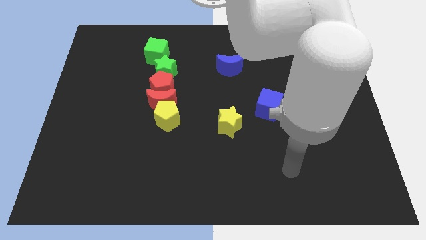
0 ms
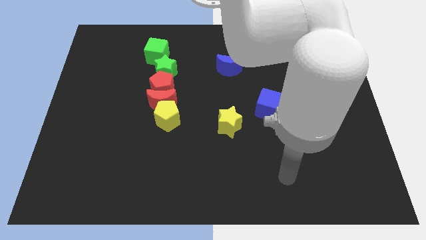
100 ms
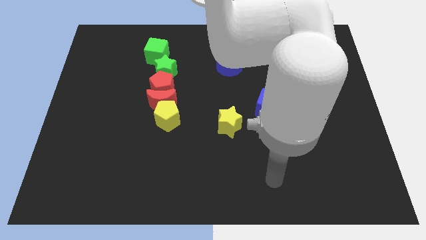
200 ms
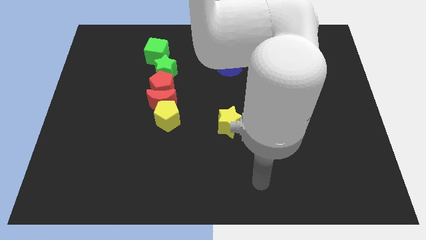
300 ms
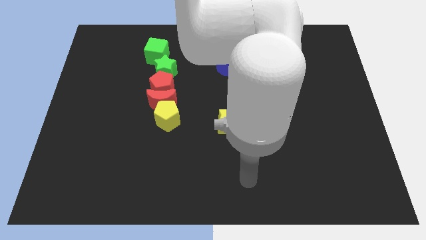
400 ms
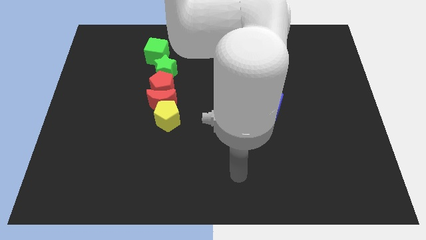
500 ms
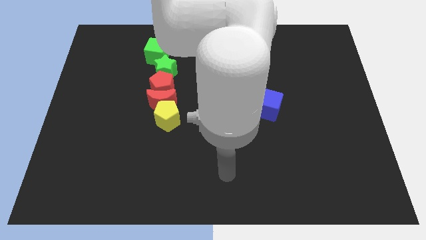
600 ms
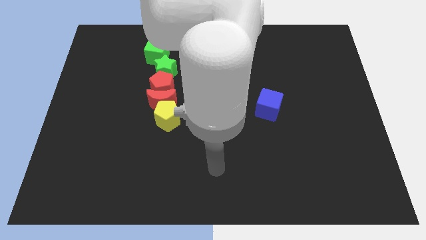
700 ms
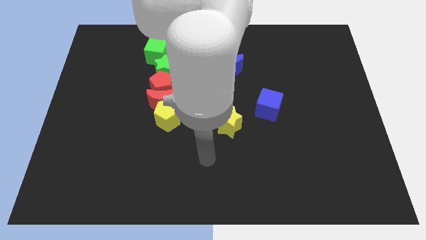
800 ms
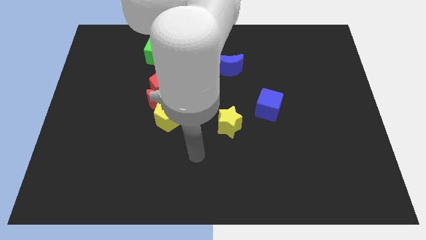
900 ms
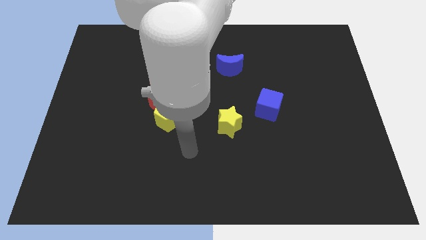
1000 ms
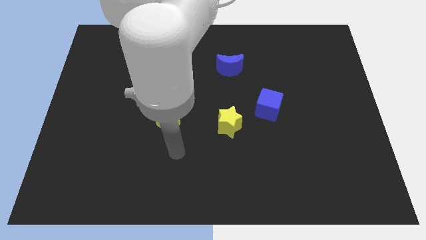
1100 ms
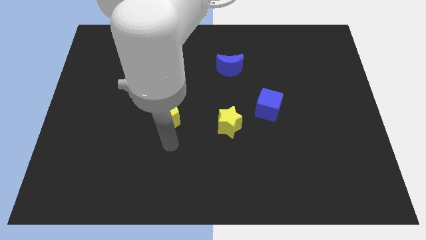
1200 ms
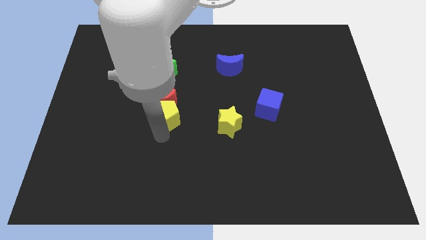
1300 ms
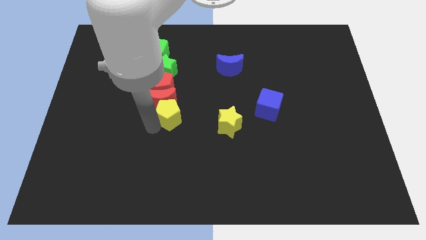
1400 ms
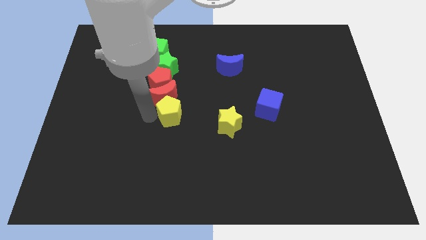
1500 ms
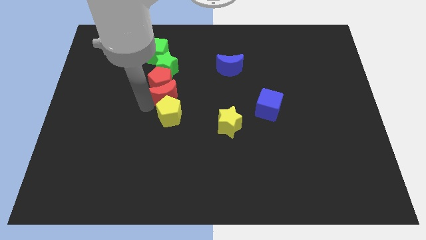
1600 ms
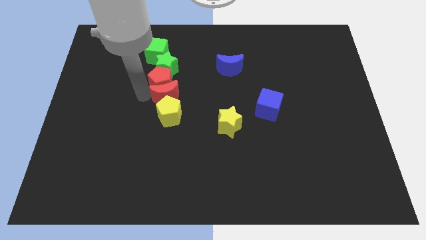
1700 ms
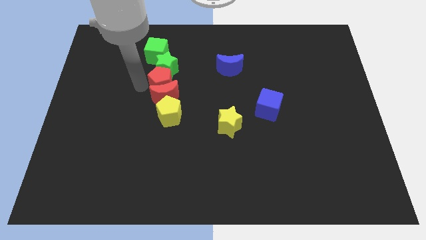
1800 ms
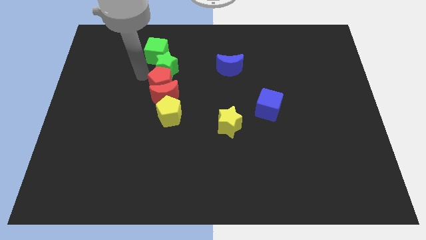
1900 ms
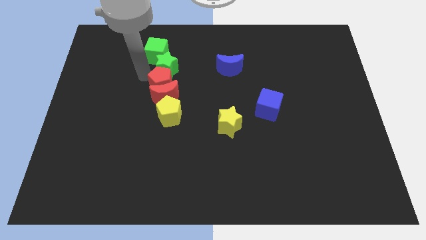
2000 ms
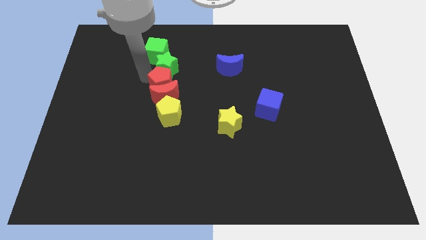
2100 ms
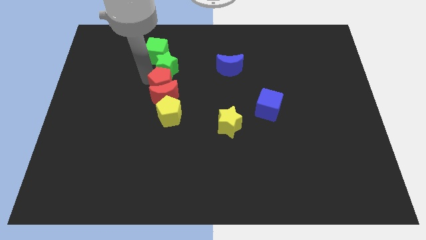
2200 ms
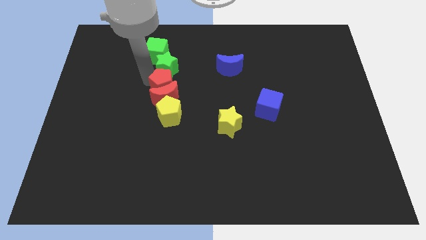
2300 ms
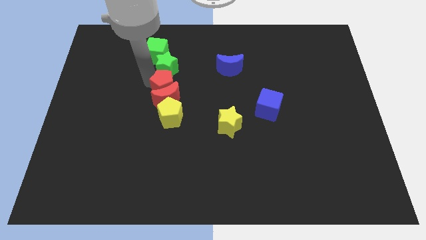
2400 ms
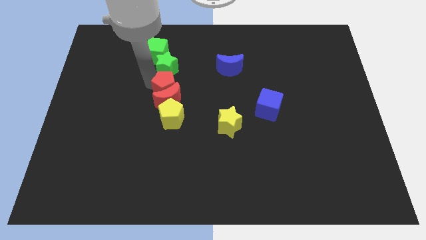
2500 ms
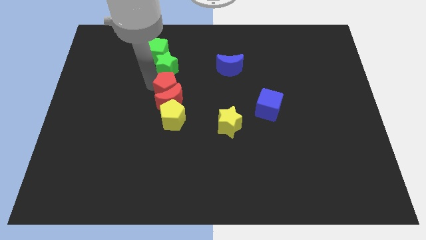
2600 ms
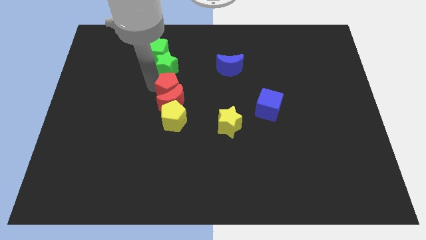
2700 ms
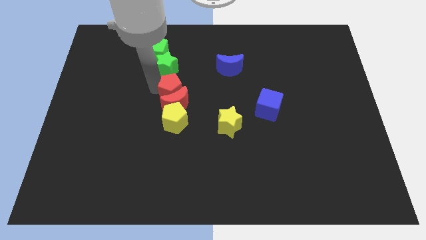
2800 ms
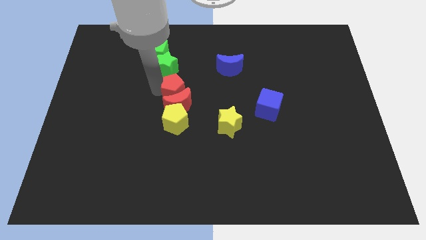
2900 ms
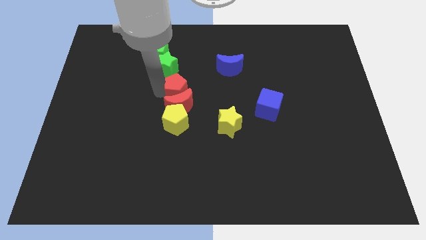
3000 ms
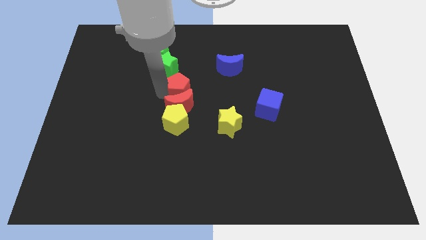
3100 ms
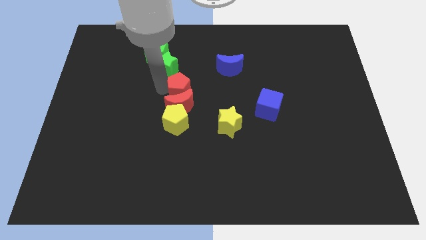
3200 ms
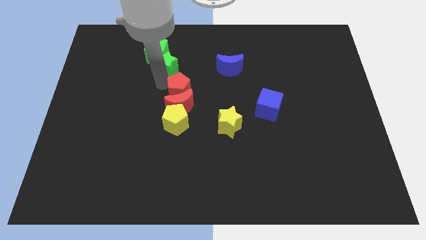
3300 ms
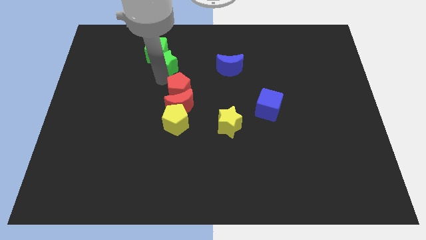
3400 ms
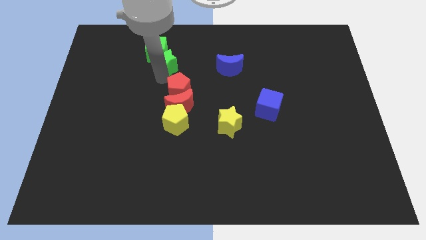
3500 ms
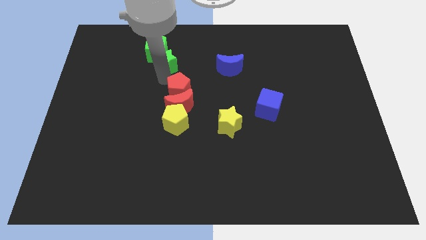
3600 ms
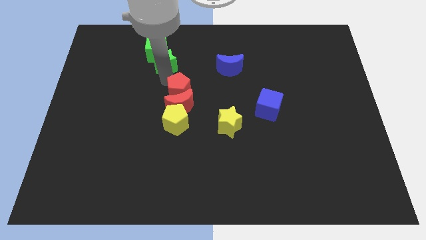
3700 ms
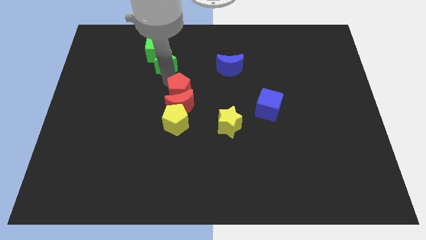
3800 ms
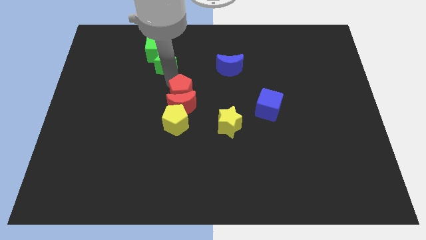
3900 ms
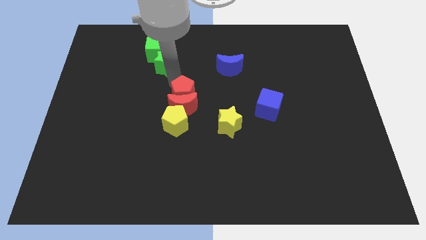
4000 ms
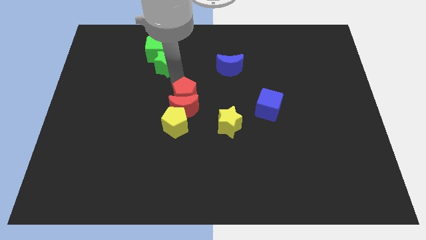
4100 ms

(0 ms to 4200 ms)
move the red pentagon to the top right side of the yellow pentagon

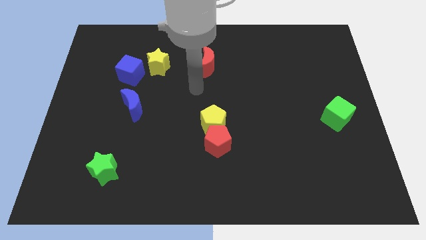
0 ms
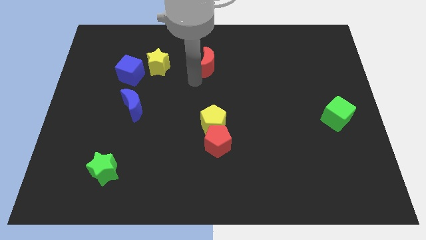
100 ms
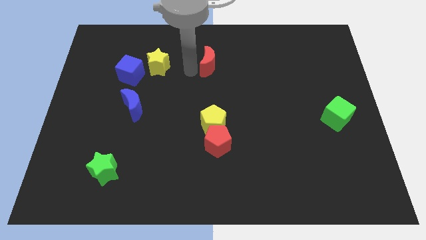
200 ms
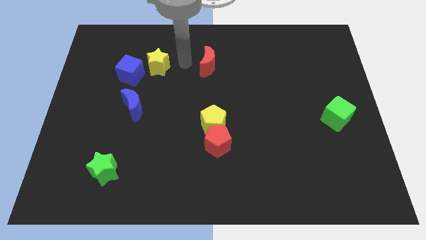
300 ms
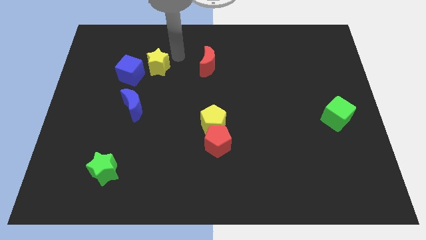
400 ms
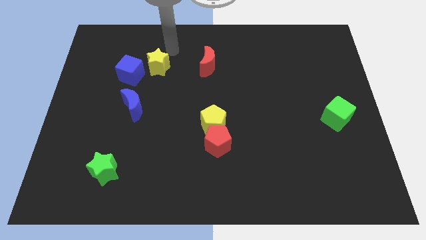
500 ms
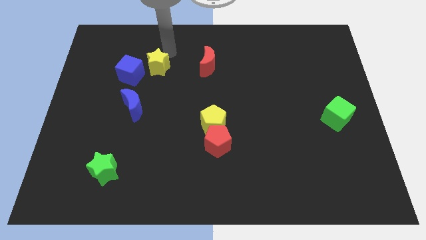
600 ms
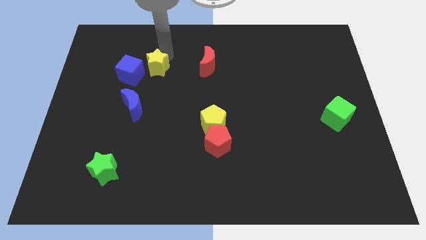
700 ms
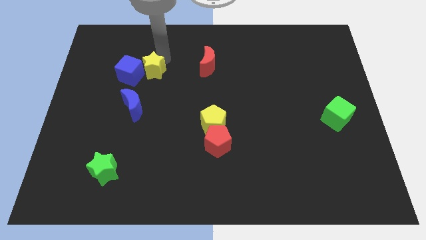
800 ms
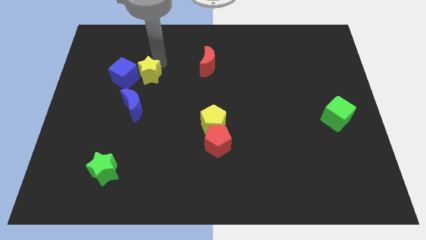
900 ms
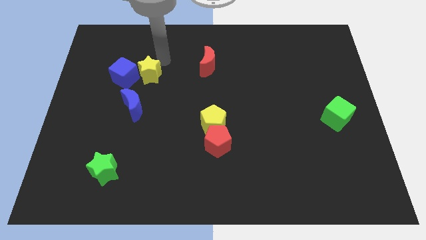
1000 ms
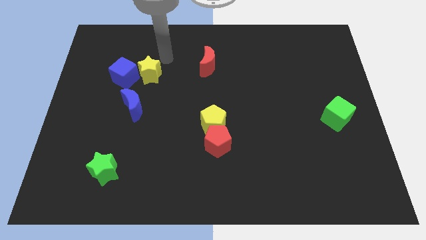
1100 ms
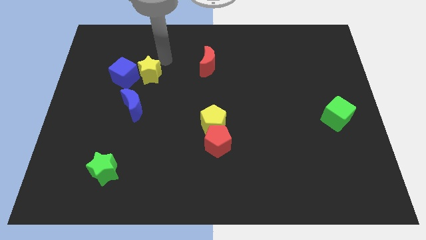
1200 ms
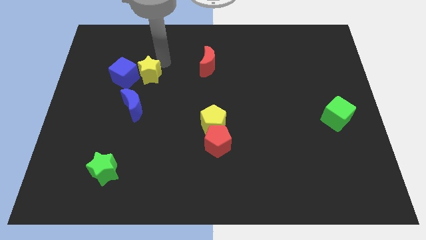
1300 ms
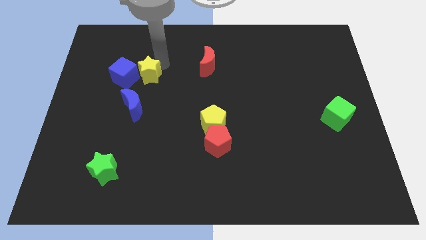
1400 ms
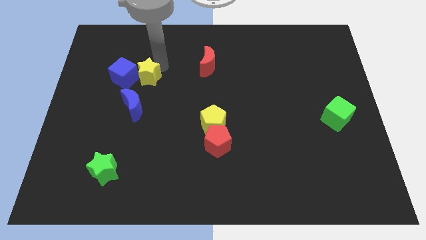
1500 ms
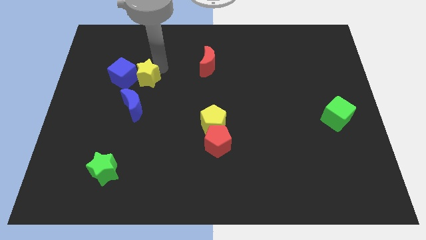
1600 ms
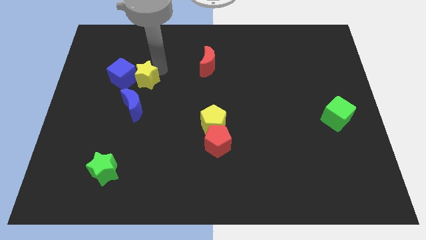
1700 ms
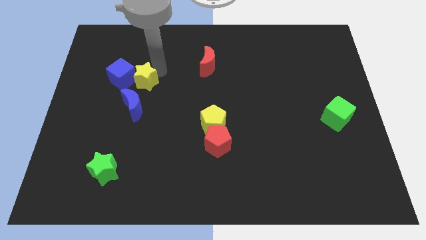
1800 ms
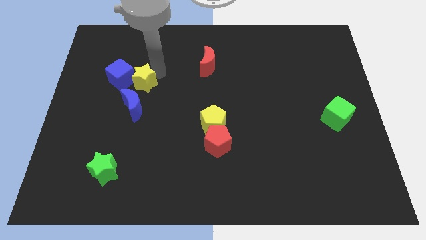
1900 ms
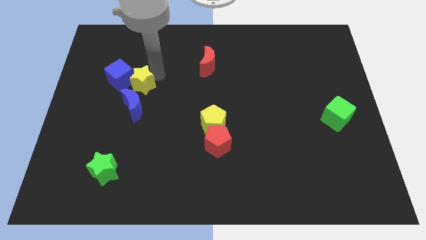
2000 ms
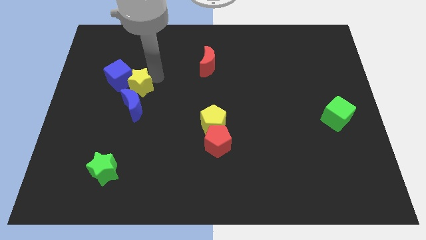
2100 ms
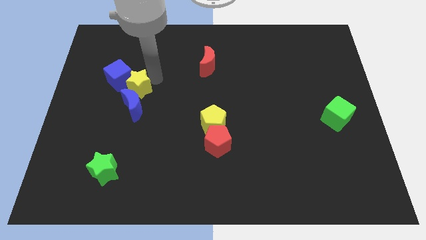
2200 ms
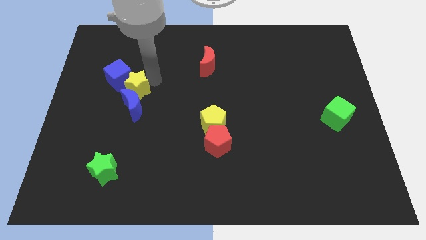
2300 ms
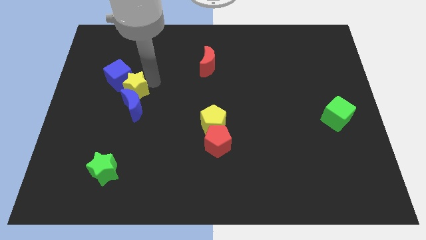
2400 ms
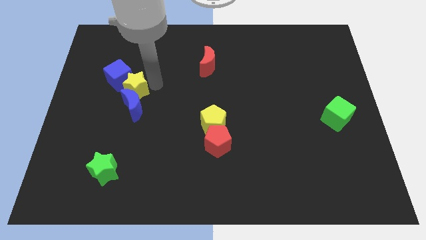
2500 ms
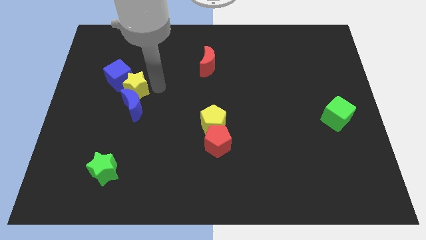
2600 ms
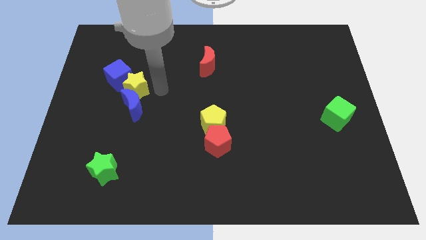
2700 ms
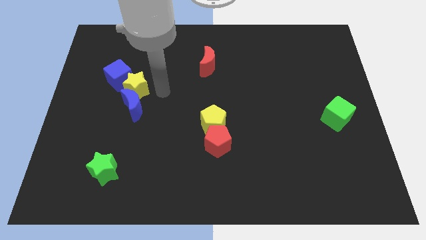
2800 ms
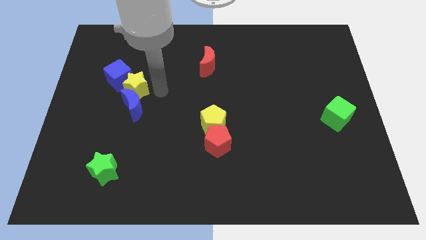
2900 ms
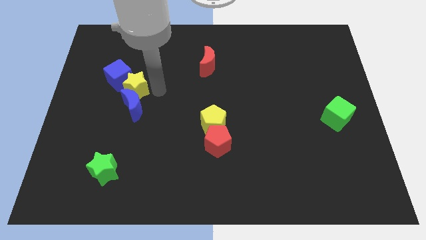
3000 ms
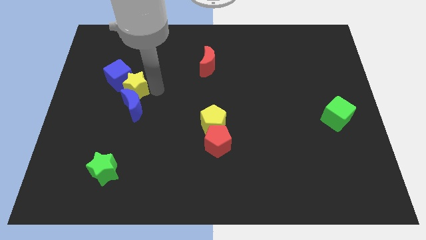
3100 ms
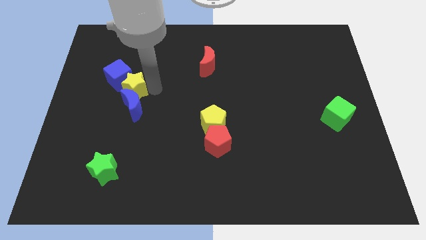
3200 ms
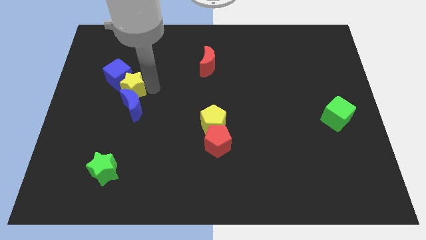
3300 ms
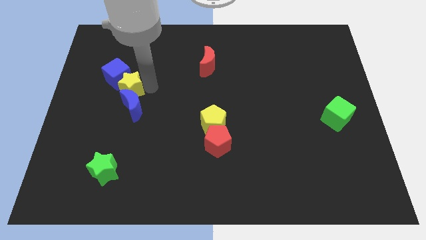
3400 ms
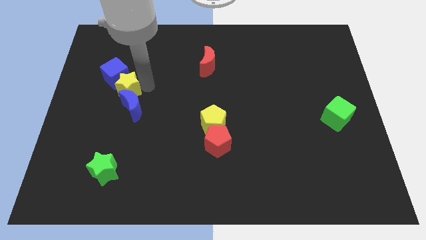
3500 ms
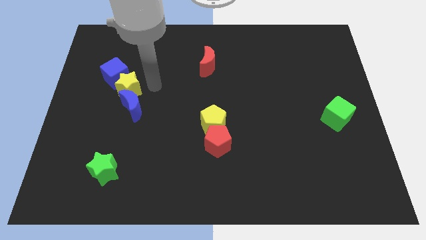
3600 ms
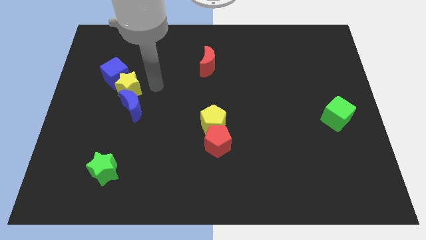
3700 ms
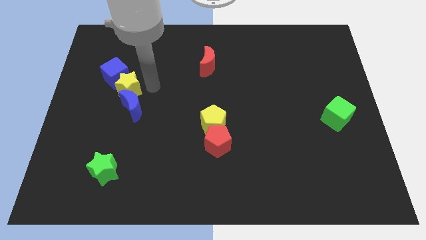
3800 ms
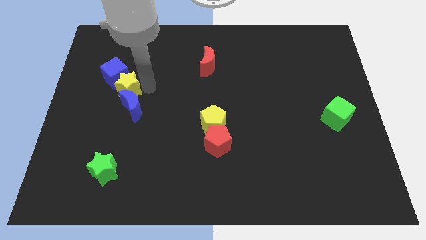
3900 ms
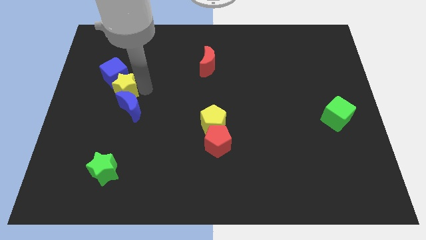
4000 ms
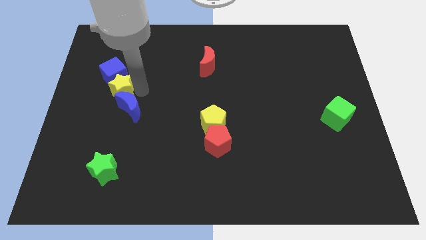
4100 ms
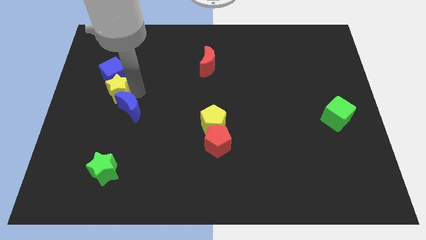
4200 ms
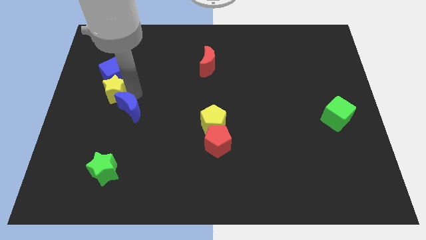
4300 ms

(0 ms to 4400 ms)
put the yellow star to the bottom left side of the blue cube
